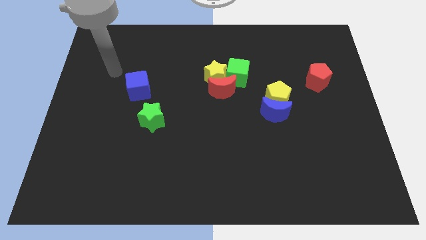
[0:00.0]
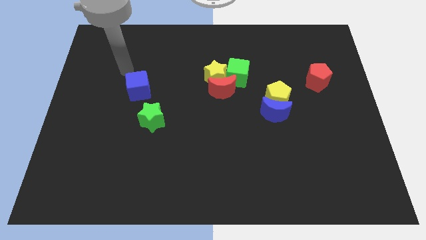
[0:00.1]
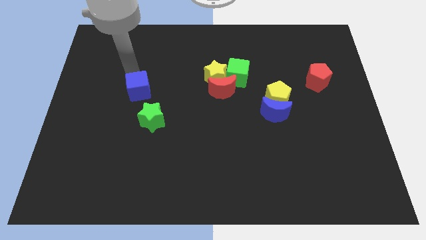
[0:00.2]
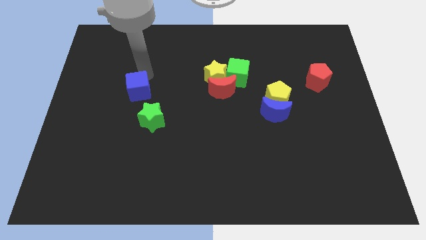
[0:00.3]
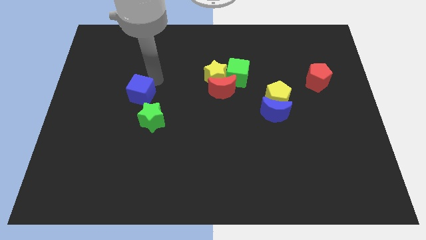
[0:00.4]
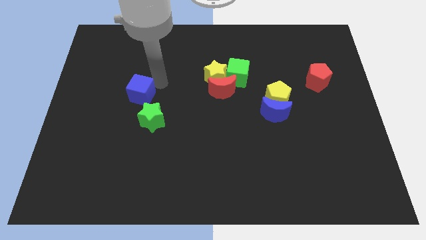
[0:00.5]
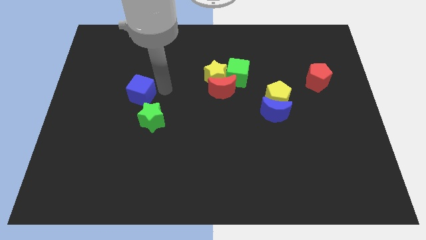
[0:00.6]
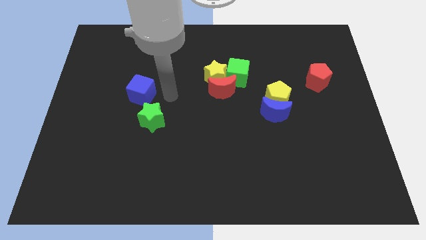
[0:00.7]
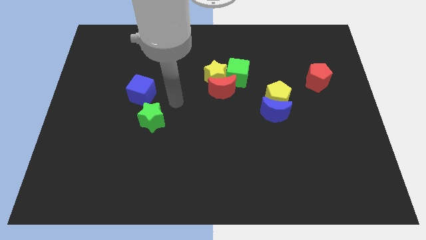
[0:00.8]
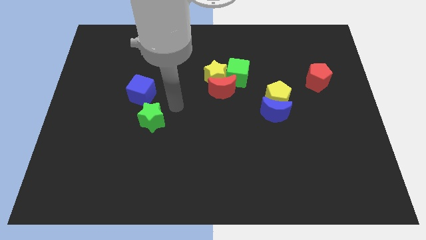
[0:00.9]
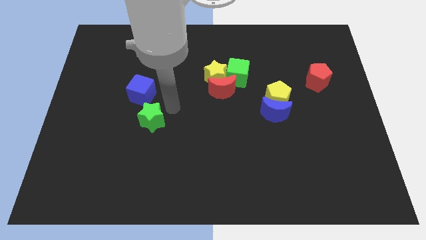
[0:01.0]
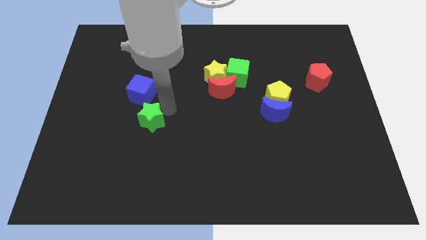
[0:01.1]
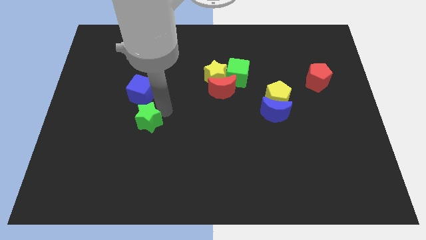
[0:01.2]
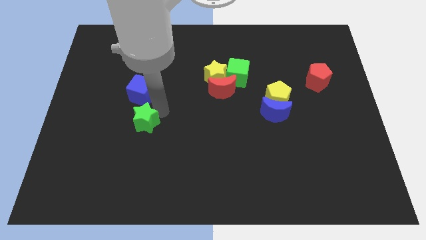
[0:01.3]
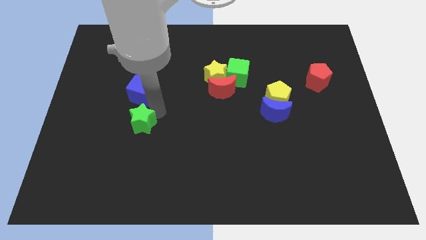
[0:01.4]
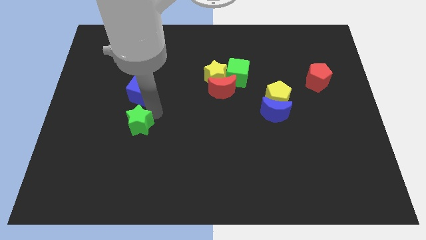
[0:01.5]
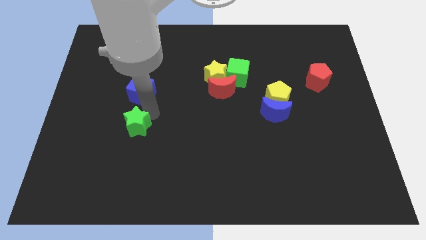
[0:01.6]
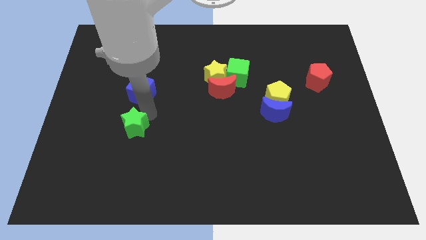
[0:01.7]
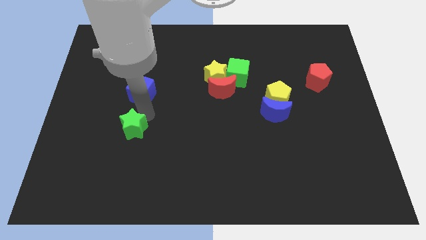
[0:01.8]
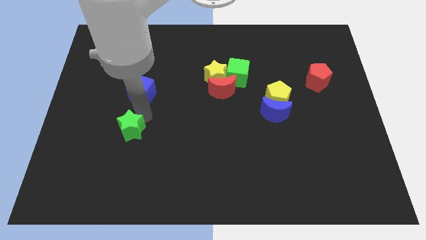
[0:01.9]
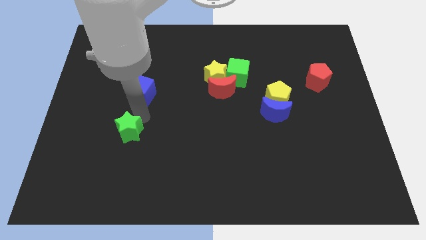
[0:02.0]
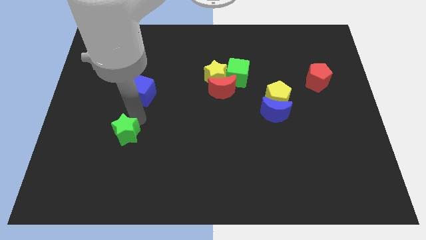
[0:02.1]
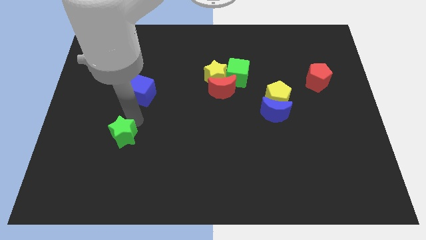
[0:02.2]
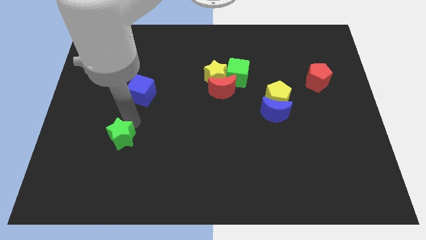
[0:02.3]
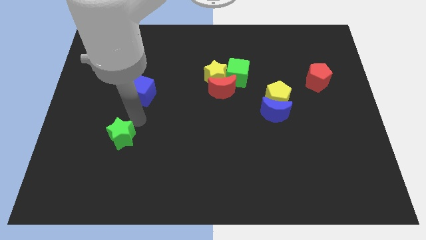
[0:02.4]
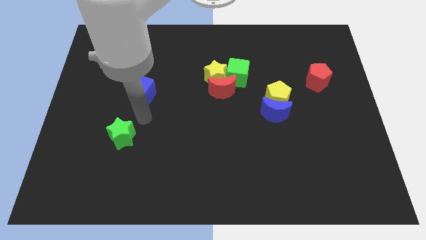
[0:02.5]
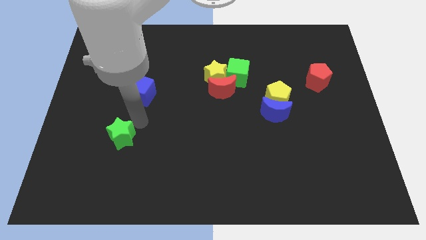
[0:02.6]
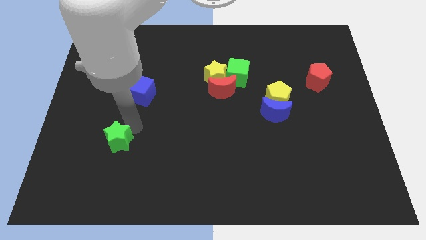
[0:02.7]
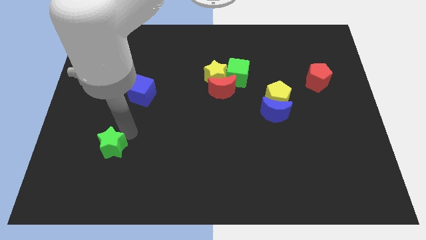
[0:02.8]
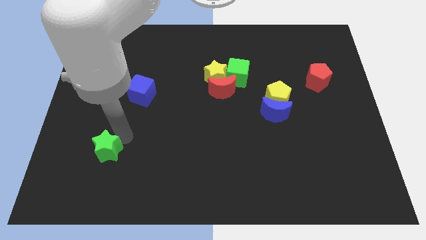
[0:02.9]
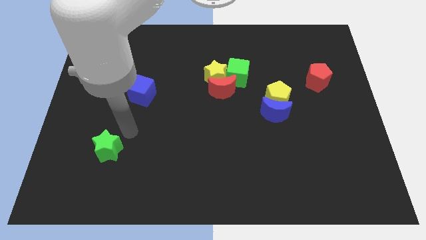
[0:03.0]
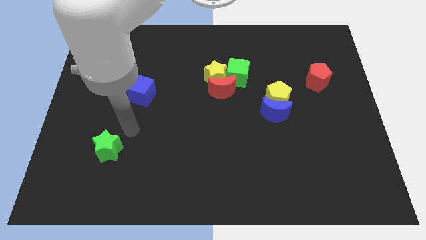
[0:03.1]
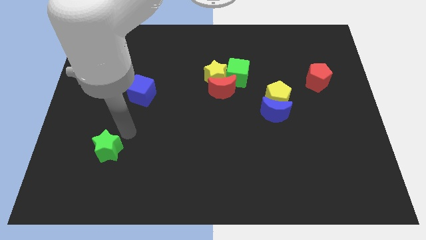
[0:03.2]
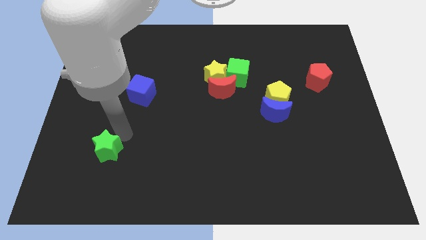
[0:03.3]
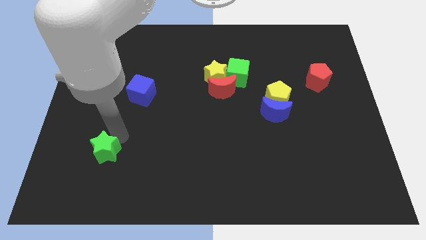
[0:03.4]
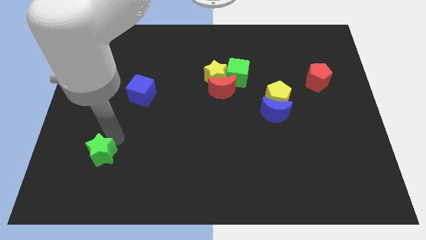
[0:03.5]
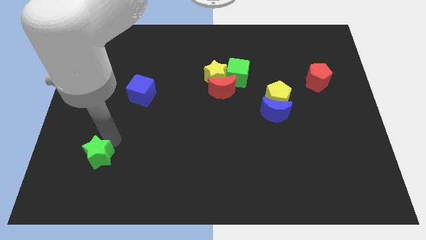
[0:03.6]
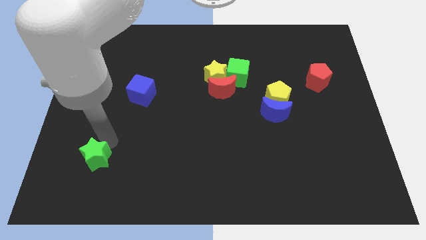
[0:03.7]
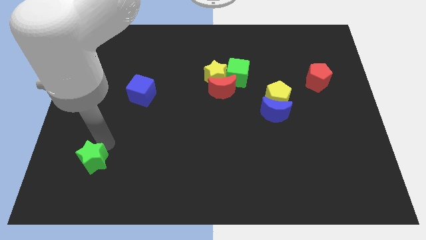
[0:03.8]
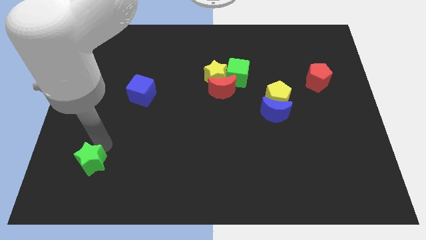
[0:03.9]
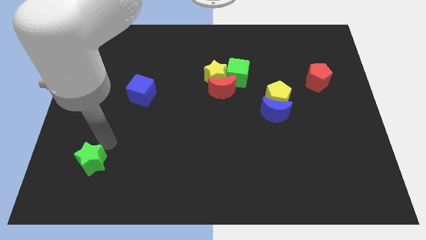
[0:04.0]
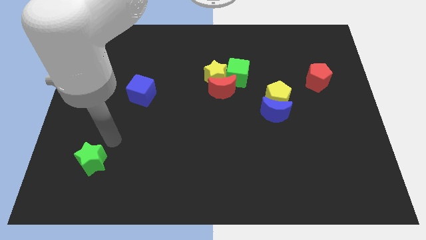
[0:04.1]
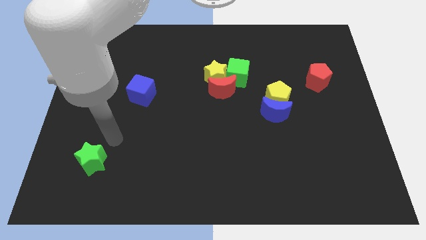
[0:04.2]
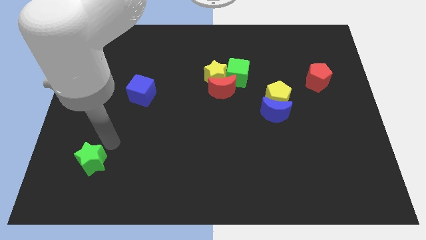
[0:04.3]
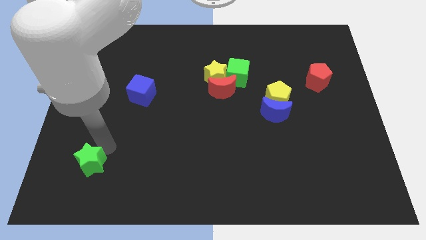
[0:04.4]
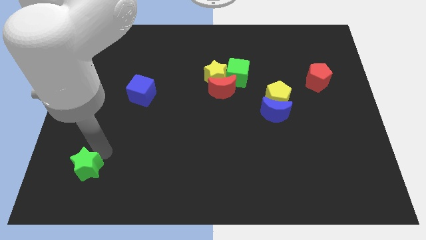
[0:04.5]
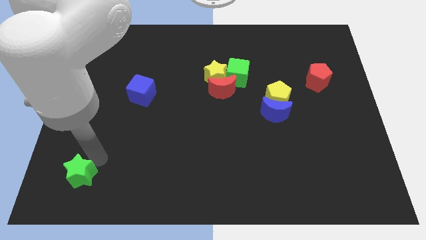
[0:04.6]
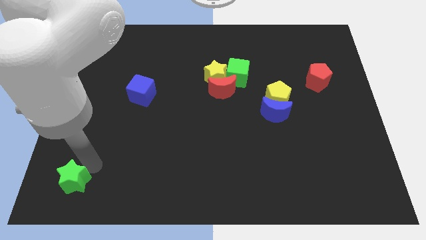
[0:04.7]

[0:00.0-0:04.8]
move the green star to the bottom left

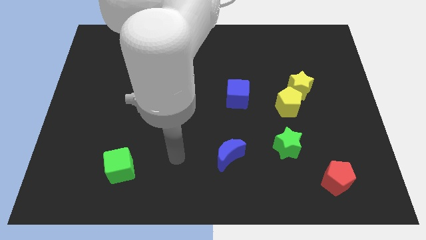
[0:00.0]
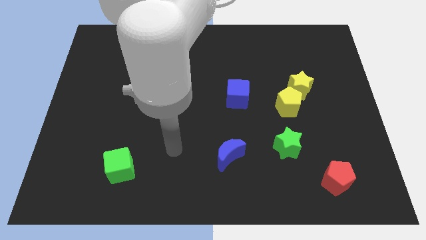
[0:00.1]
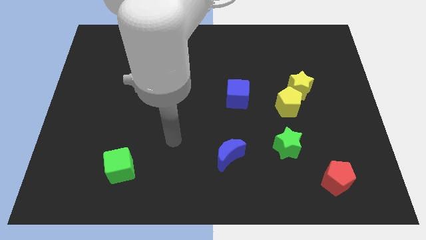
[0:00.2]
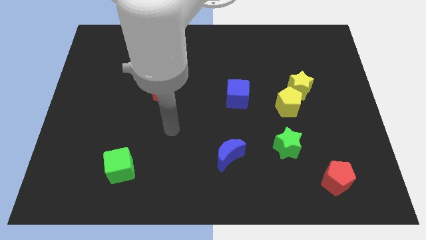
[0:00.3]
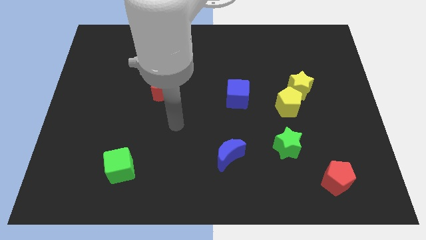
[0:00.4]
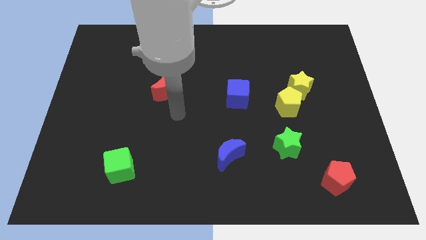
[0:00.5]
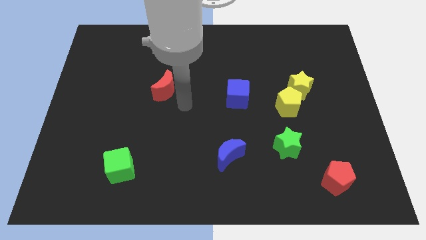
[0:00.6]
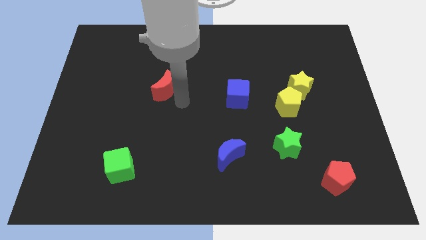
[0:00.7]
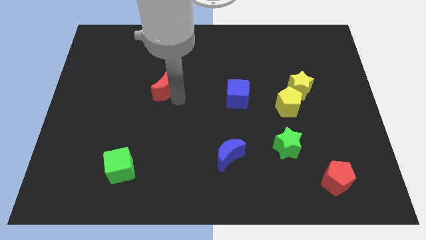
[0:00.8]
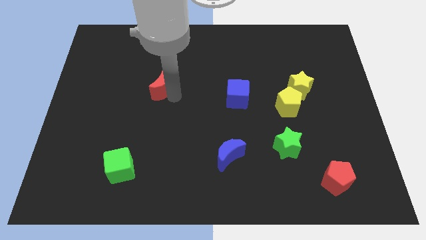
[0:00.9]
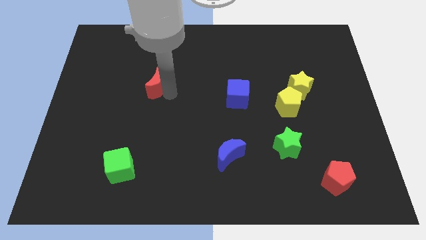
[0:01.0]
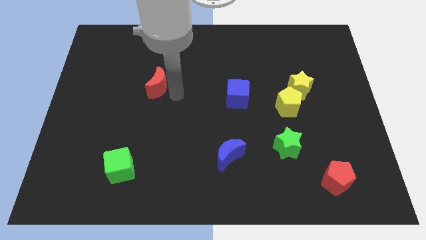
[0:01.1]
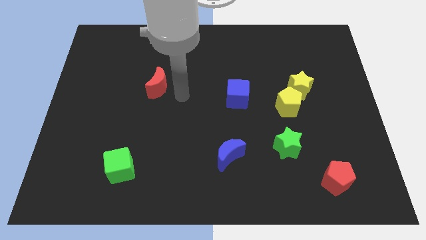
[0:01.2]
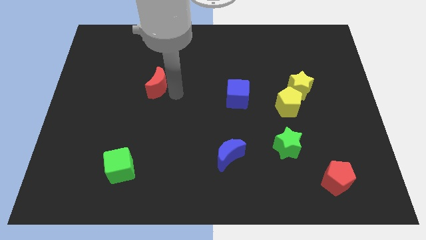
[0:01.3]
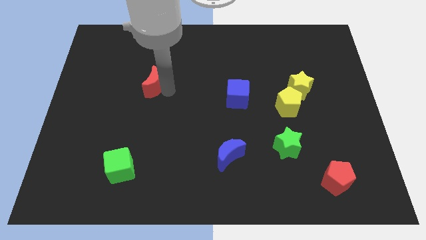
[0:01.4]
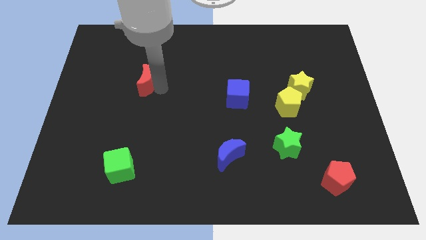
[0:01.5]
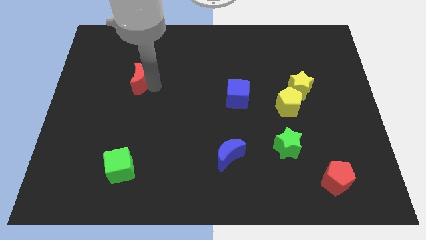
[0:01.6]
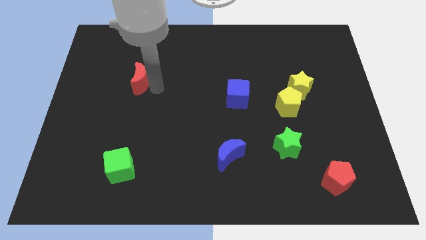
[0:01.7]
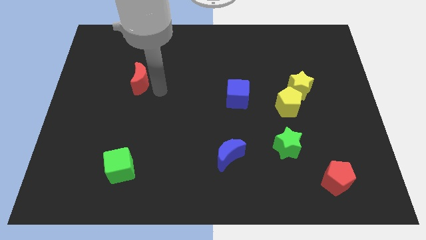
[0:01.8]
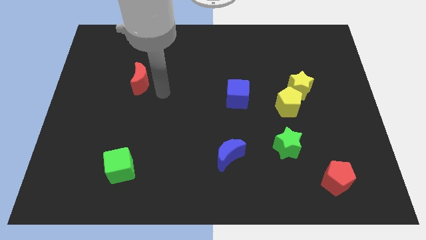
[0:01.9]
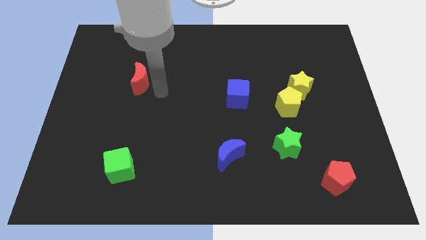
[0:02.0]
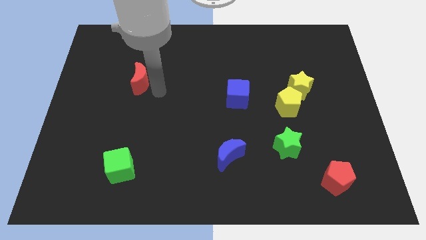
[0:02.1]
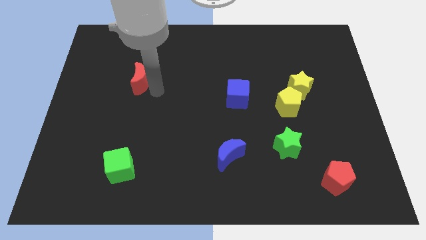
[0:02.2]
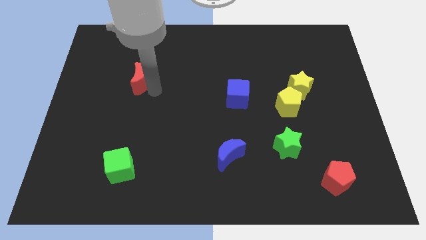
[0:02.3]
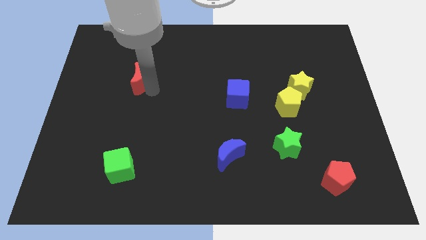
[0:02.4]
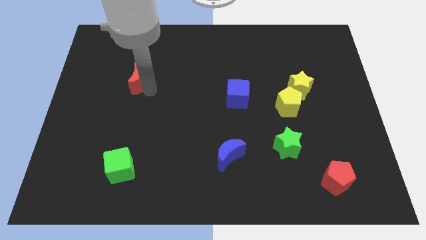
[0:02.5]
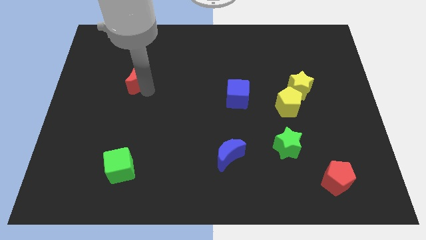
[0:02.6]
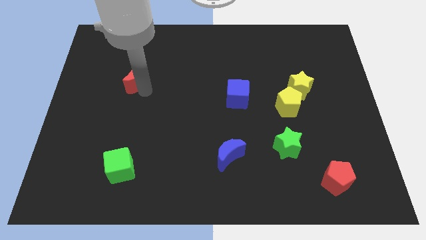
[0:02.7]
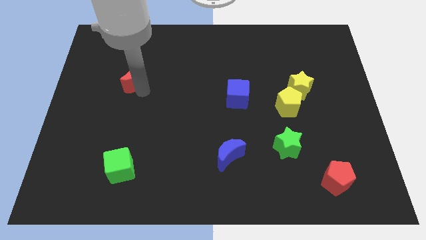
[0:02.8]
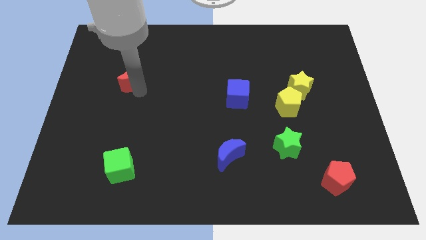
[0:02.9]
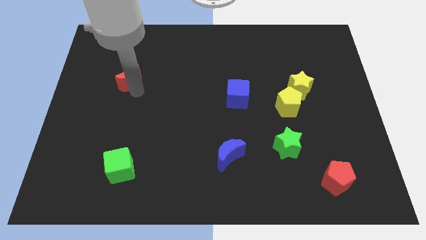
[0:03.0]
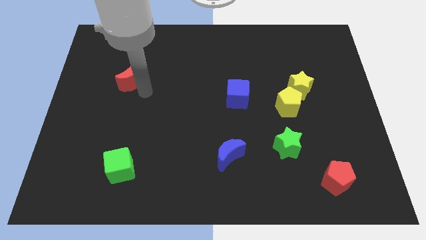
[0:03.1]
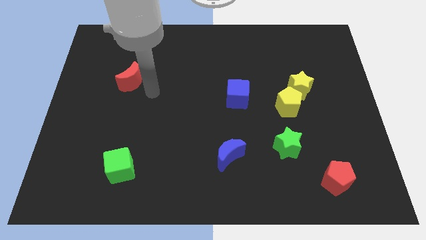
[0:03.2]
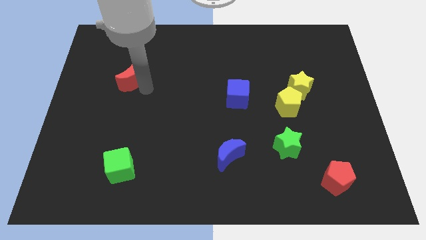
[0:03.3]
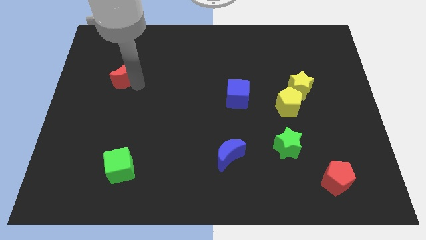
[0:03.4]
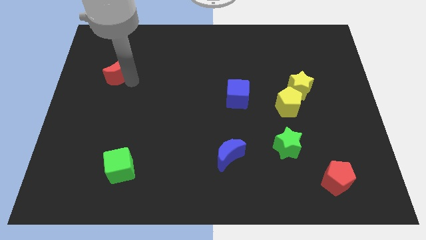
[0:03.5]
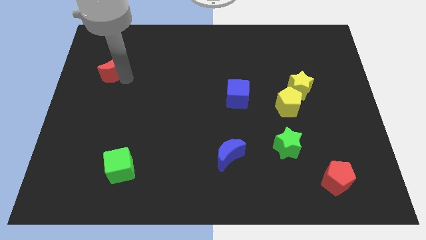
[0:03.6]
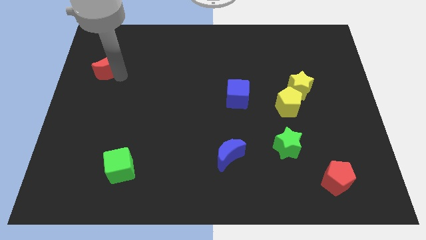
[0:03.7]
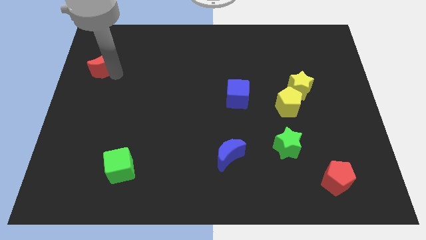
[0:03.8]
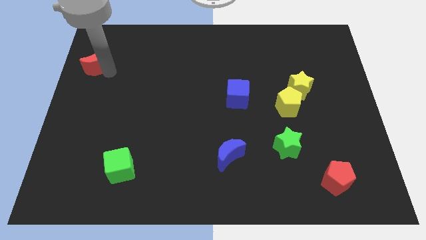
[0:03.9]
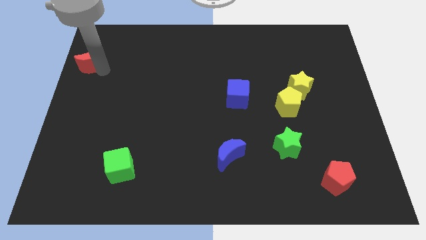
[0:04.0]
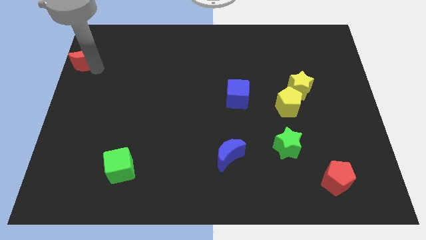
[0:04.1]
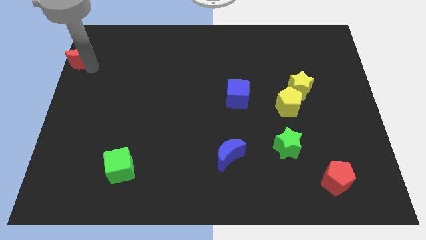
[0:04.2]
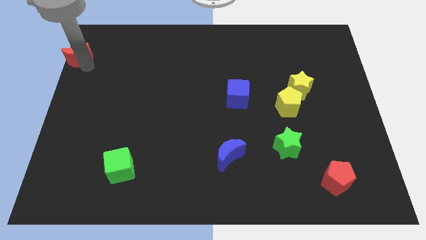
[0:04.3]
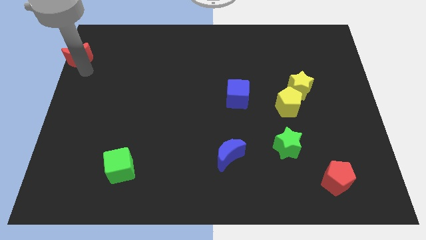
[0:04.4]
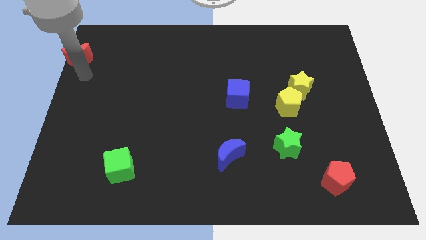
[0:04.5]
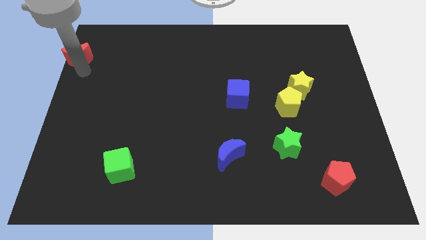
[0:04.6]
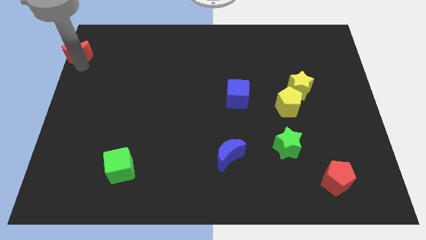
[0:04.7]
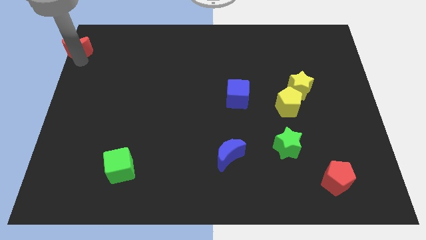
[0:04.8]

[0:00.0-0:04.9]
push the red moon to the top left
